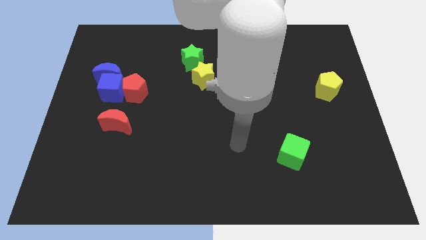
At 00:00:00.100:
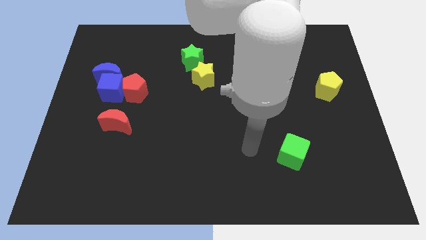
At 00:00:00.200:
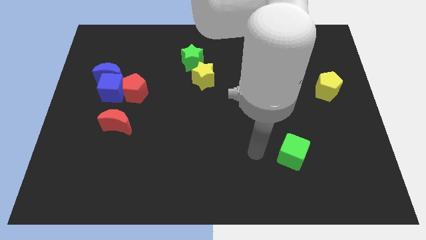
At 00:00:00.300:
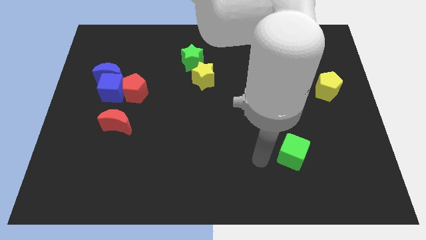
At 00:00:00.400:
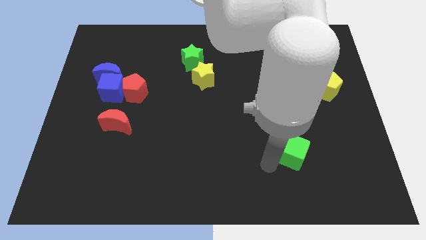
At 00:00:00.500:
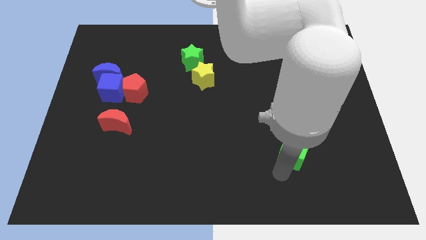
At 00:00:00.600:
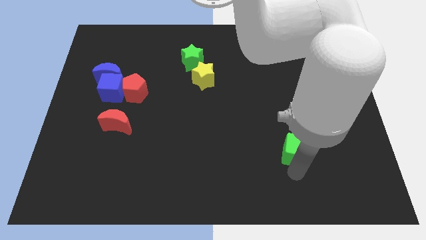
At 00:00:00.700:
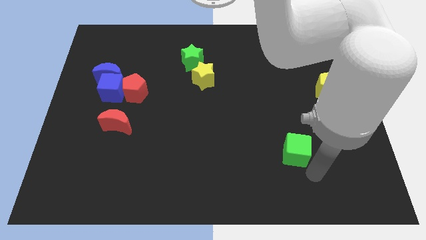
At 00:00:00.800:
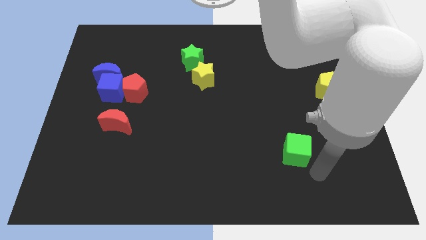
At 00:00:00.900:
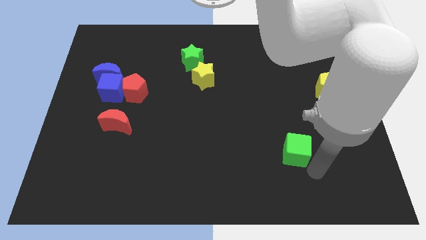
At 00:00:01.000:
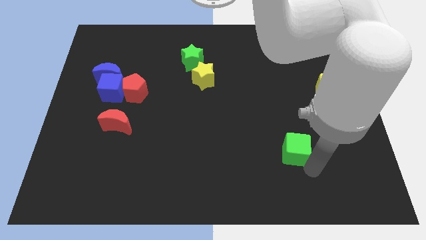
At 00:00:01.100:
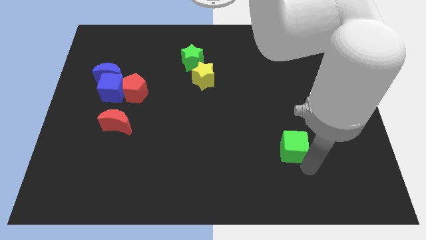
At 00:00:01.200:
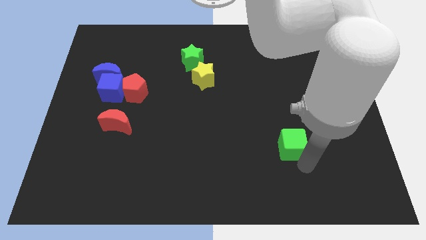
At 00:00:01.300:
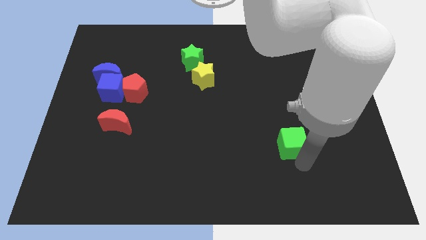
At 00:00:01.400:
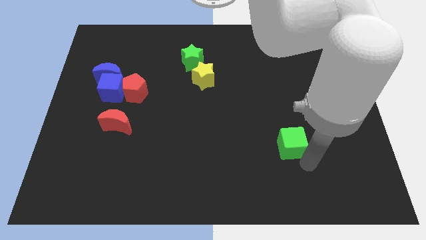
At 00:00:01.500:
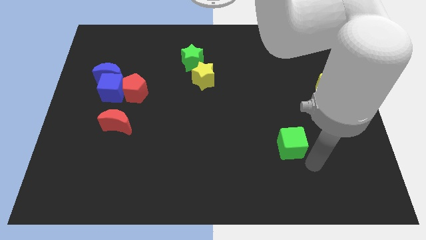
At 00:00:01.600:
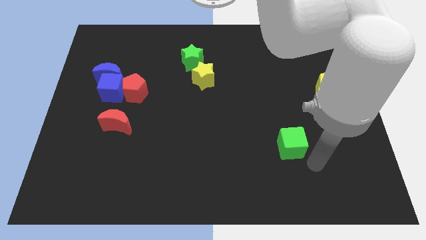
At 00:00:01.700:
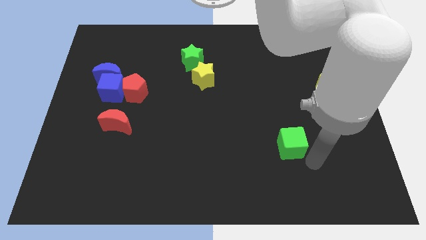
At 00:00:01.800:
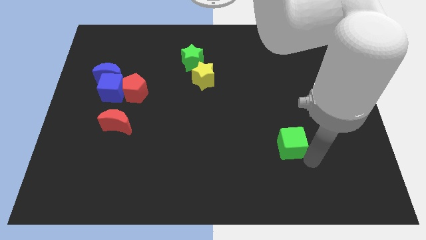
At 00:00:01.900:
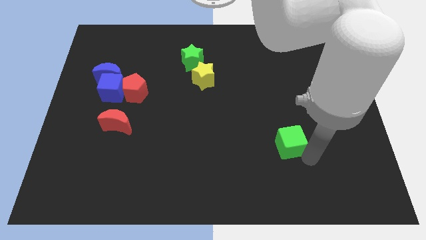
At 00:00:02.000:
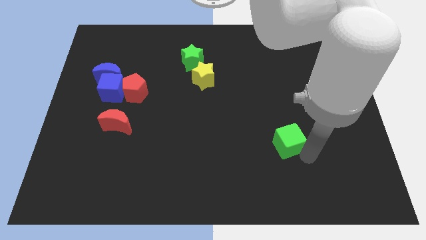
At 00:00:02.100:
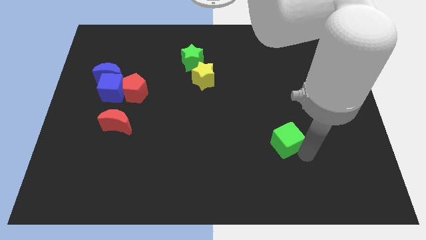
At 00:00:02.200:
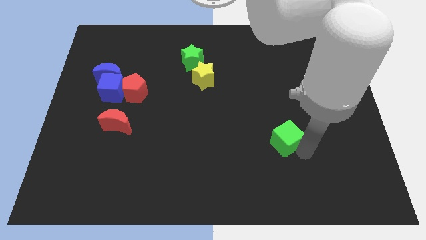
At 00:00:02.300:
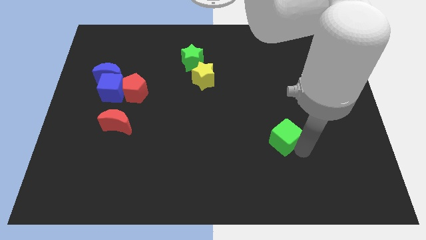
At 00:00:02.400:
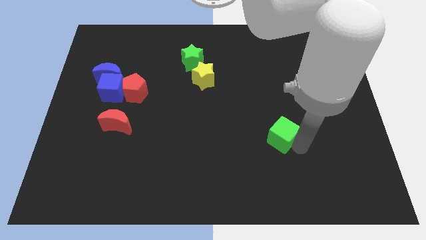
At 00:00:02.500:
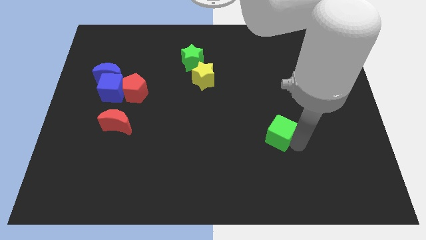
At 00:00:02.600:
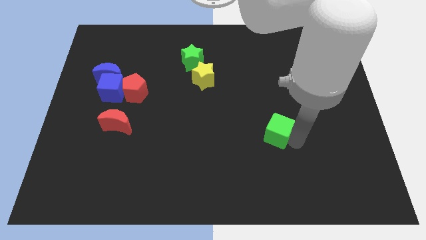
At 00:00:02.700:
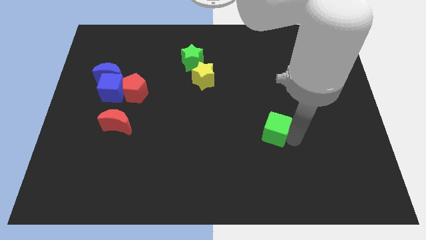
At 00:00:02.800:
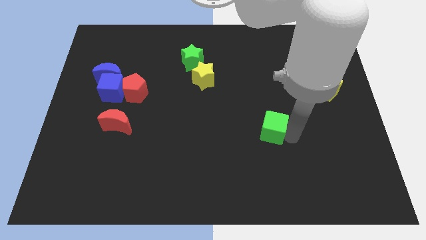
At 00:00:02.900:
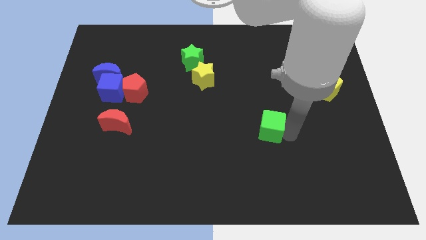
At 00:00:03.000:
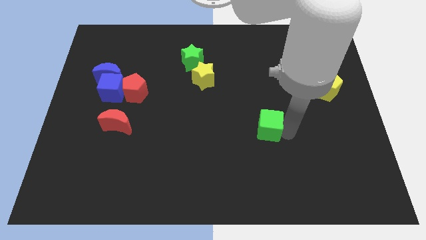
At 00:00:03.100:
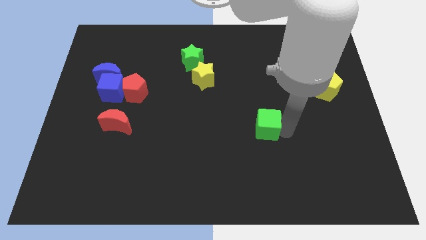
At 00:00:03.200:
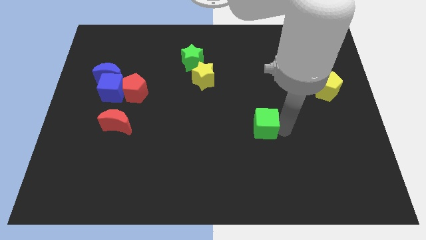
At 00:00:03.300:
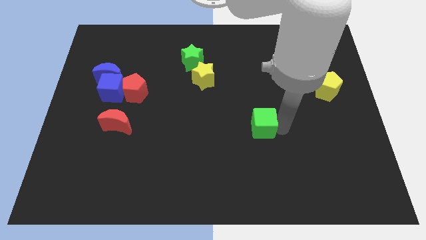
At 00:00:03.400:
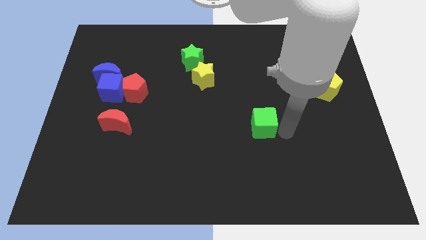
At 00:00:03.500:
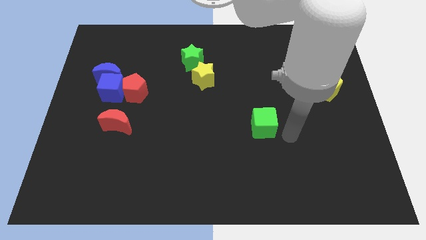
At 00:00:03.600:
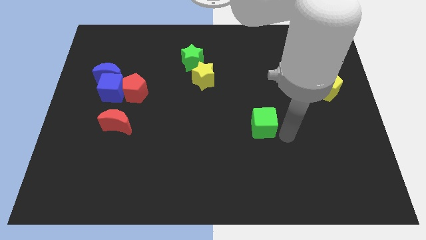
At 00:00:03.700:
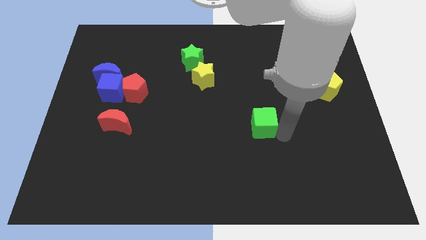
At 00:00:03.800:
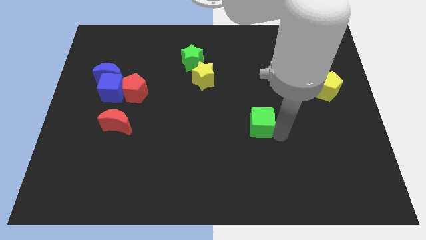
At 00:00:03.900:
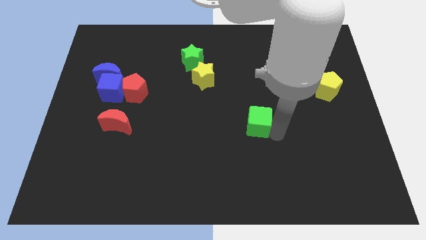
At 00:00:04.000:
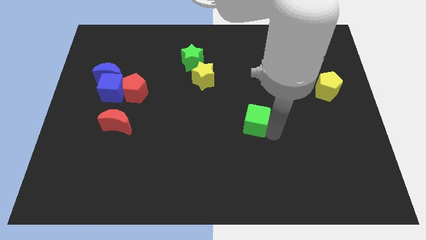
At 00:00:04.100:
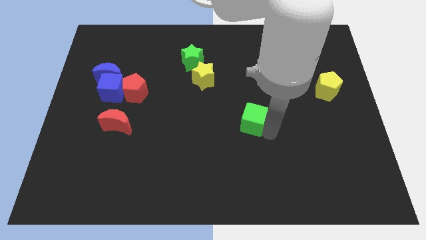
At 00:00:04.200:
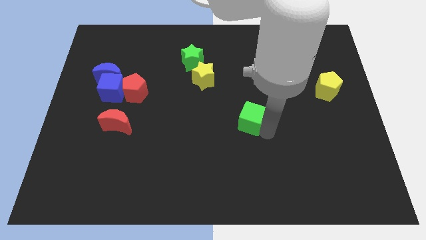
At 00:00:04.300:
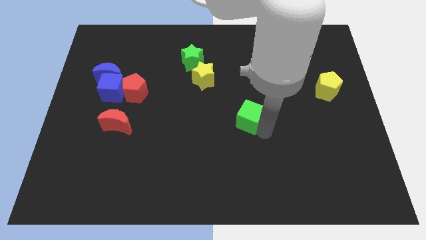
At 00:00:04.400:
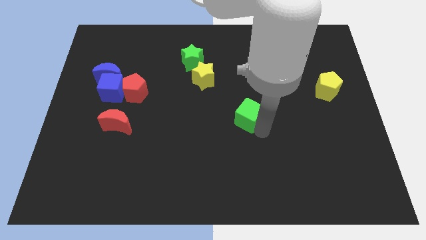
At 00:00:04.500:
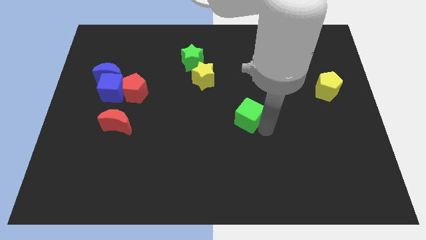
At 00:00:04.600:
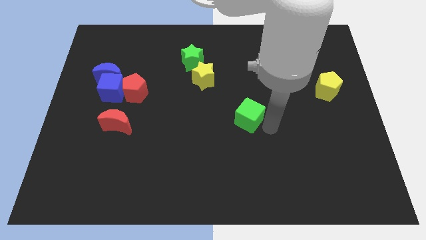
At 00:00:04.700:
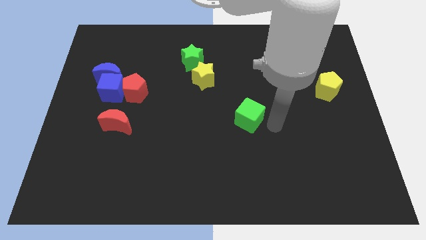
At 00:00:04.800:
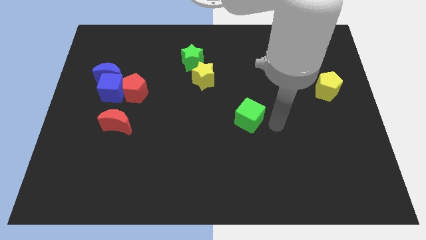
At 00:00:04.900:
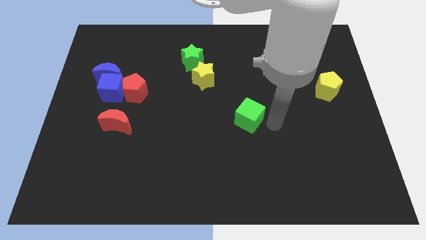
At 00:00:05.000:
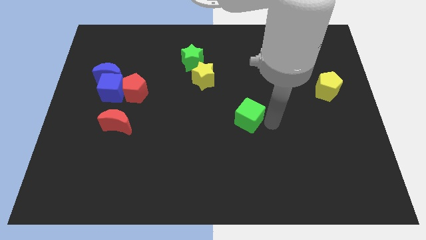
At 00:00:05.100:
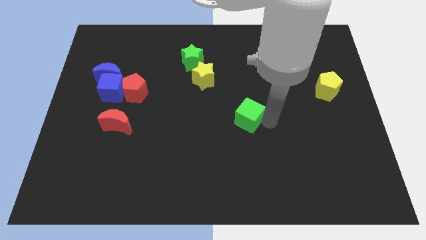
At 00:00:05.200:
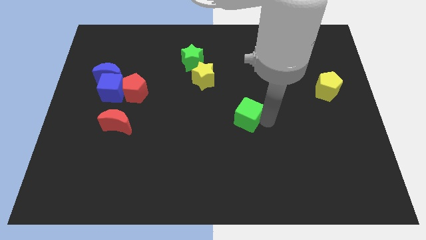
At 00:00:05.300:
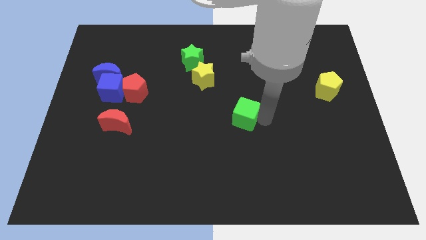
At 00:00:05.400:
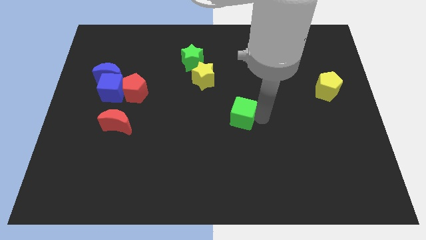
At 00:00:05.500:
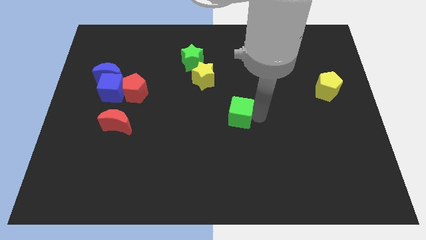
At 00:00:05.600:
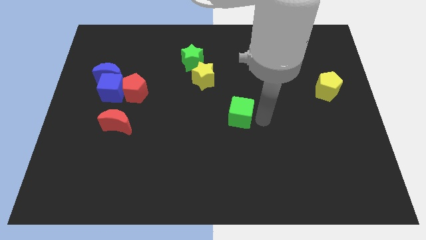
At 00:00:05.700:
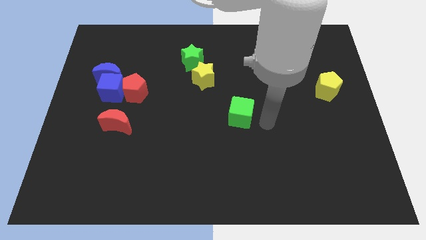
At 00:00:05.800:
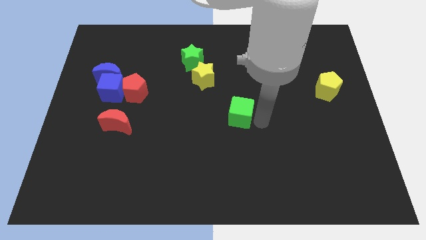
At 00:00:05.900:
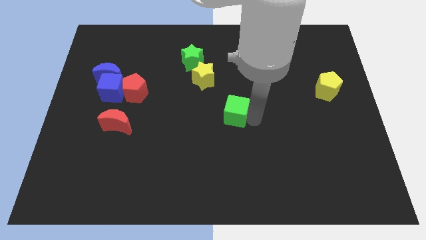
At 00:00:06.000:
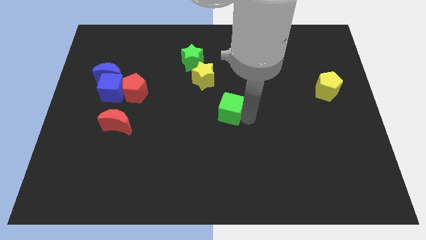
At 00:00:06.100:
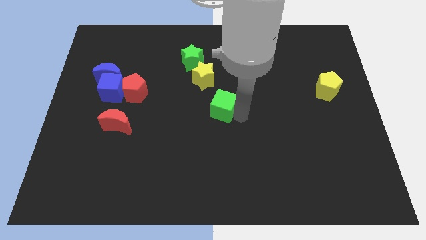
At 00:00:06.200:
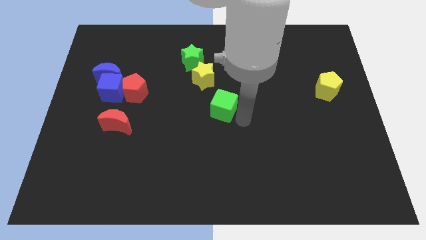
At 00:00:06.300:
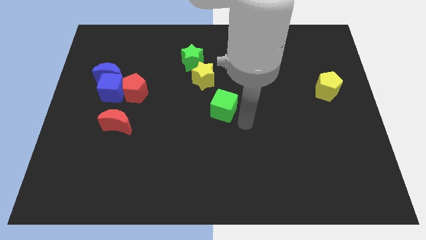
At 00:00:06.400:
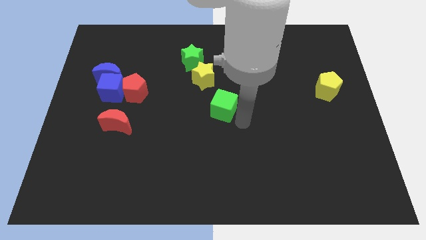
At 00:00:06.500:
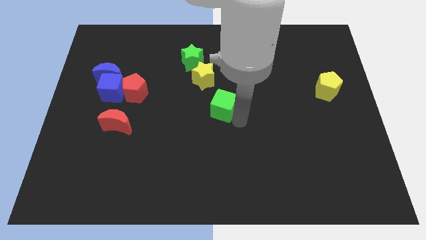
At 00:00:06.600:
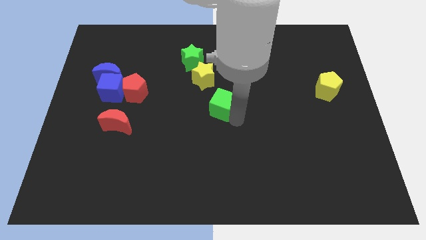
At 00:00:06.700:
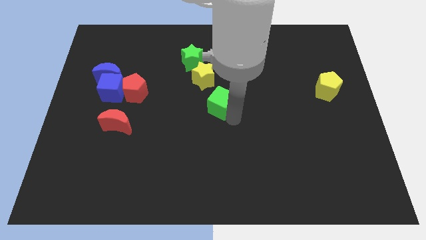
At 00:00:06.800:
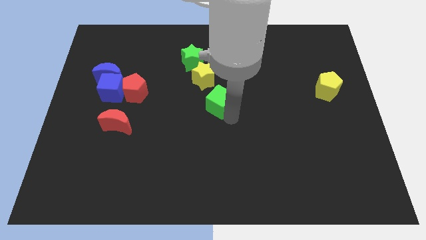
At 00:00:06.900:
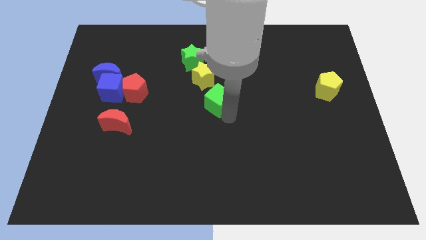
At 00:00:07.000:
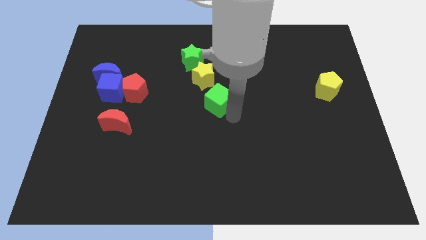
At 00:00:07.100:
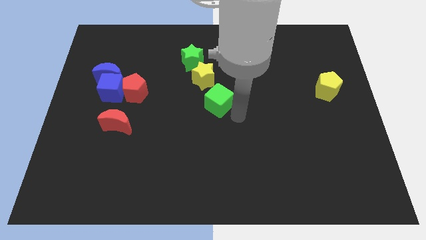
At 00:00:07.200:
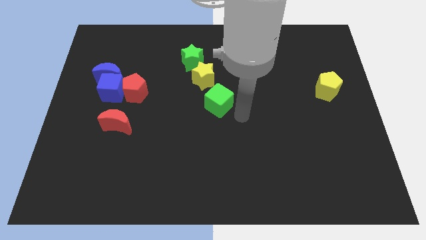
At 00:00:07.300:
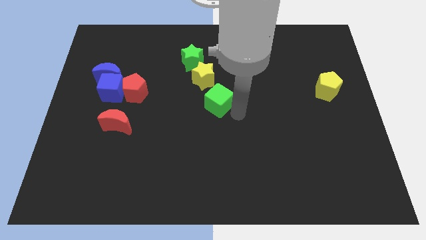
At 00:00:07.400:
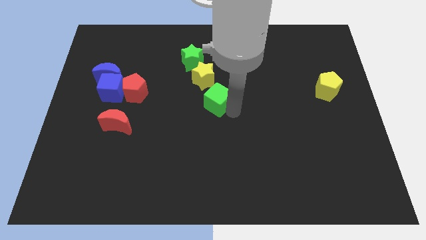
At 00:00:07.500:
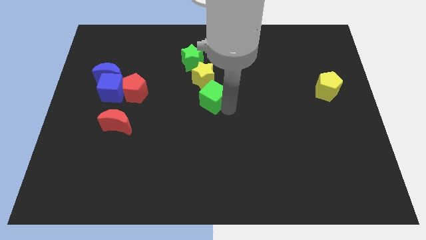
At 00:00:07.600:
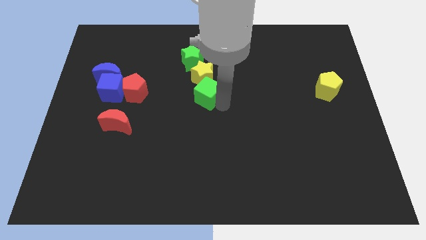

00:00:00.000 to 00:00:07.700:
push the green cube below the green star
